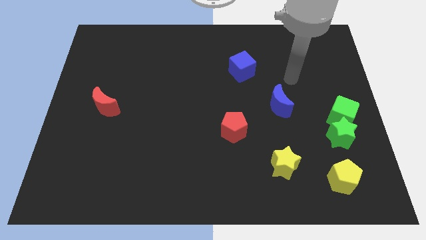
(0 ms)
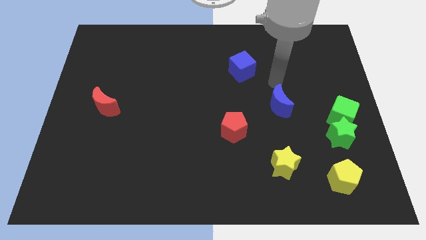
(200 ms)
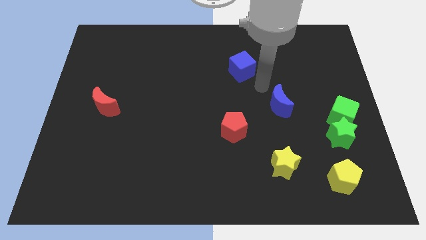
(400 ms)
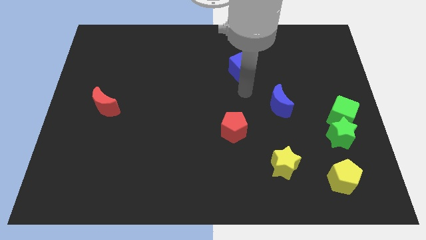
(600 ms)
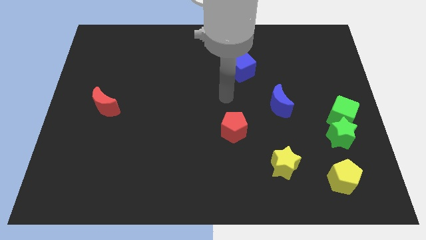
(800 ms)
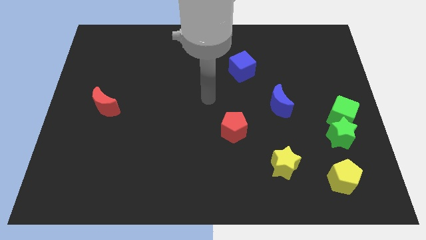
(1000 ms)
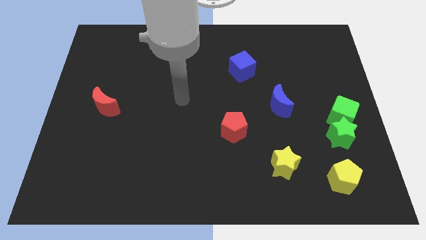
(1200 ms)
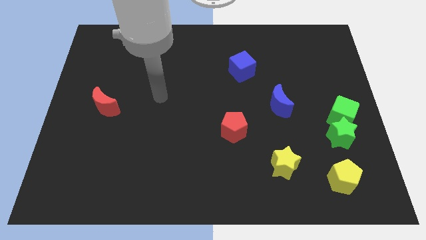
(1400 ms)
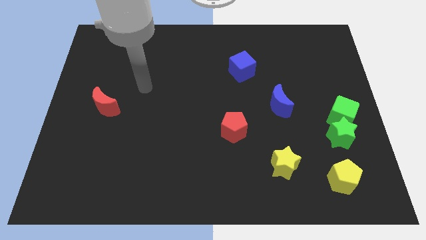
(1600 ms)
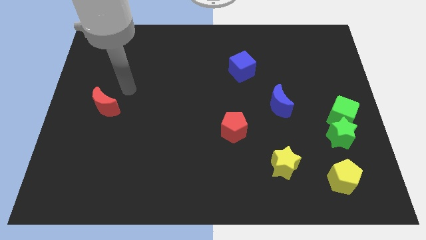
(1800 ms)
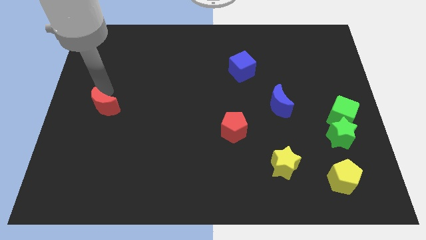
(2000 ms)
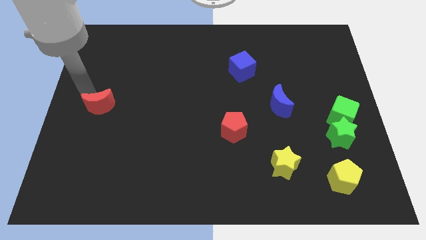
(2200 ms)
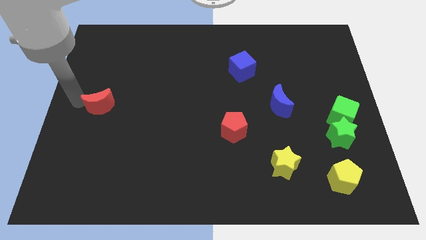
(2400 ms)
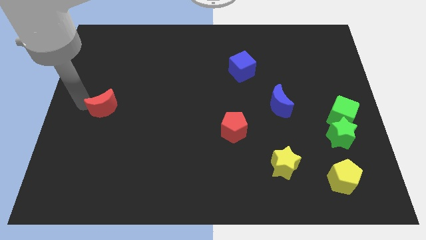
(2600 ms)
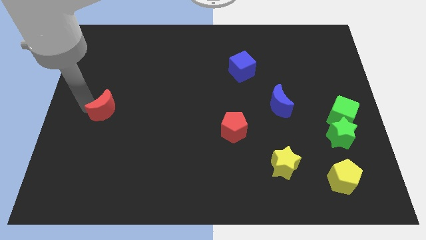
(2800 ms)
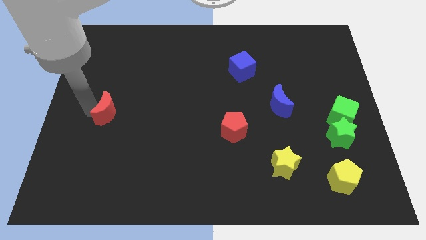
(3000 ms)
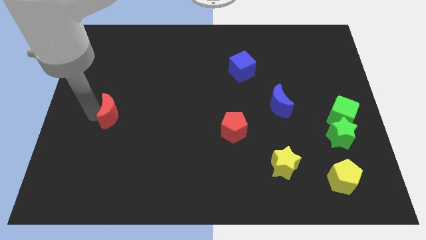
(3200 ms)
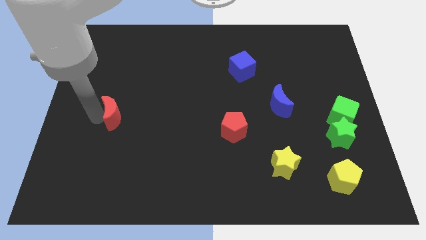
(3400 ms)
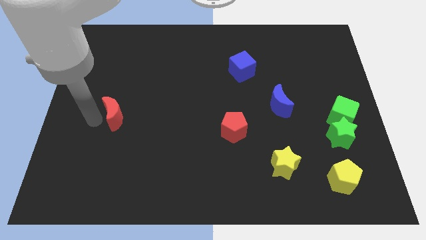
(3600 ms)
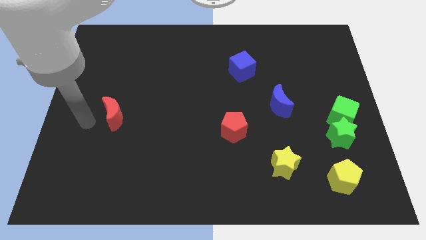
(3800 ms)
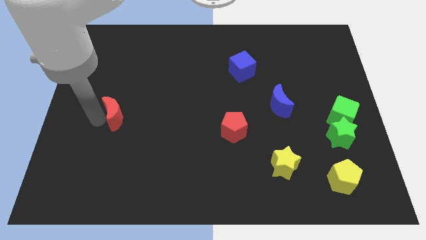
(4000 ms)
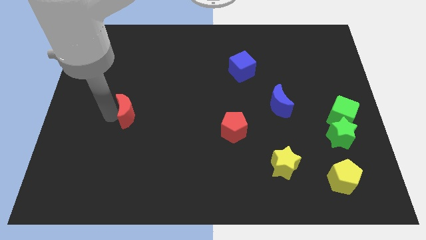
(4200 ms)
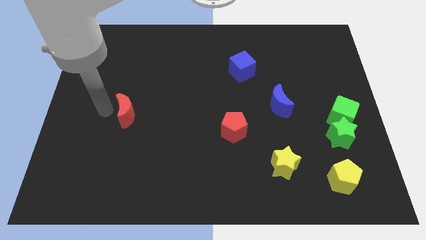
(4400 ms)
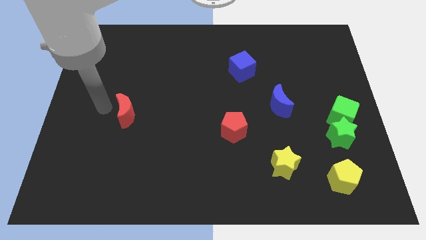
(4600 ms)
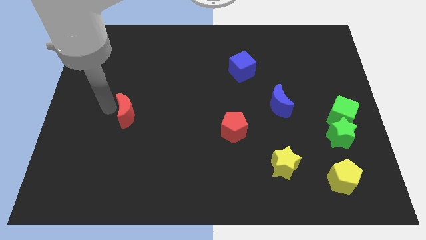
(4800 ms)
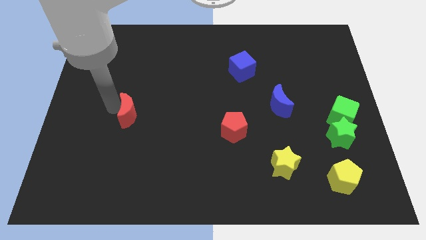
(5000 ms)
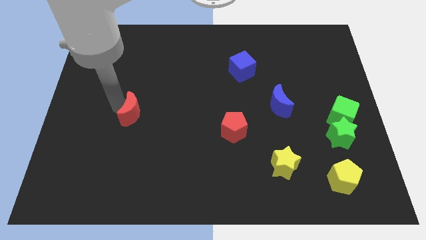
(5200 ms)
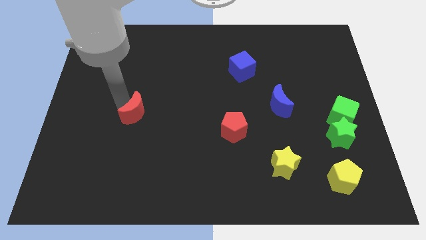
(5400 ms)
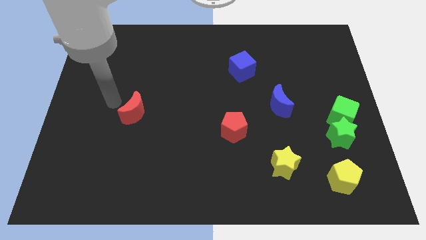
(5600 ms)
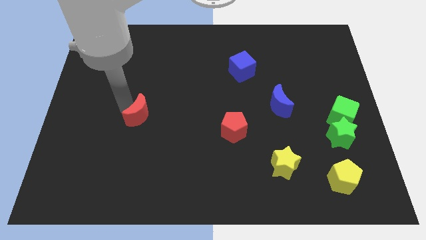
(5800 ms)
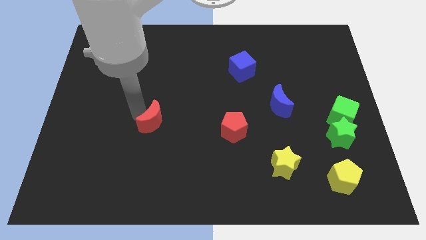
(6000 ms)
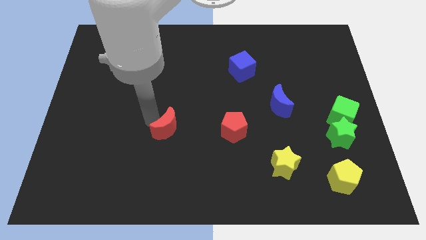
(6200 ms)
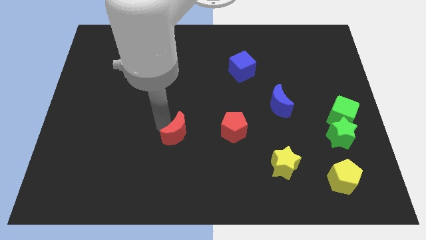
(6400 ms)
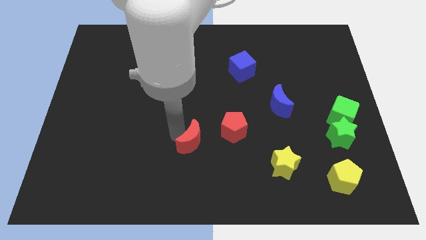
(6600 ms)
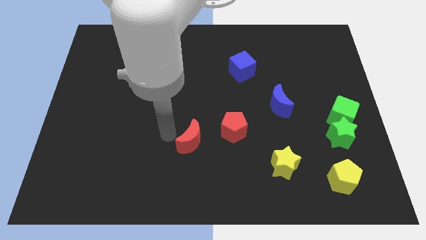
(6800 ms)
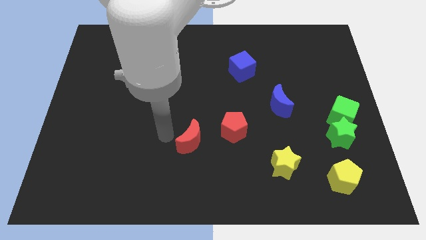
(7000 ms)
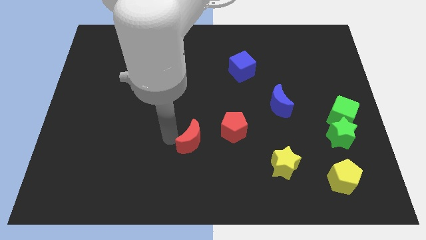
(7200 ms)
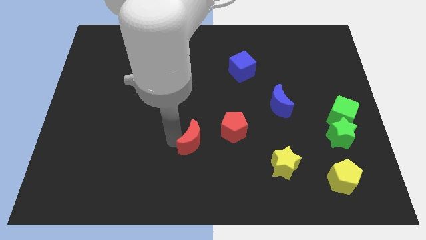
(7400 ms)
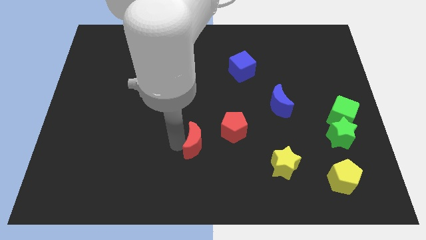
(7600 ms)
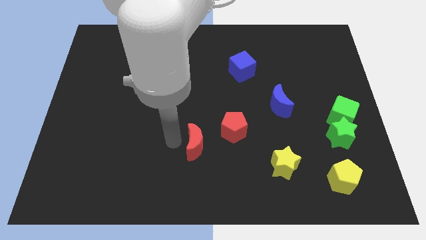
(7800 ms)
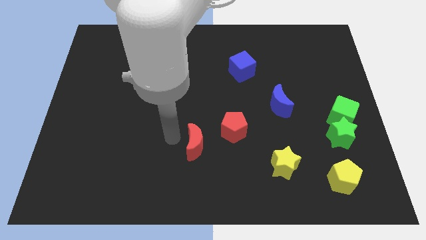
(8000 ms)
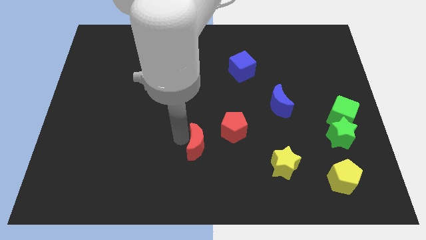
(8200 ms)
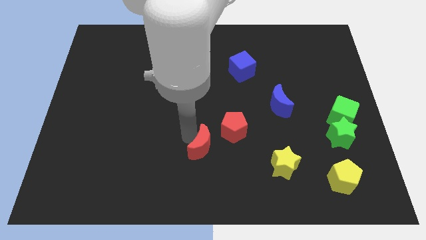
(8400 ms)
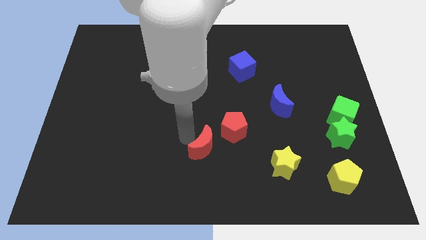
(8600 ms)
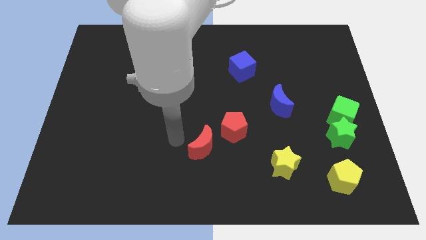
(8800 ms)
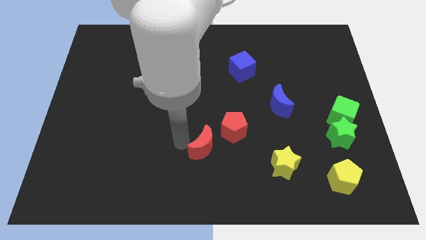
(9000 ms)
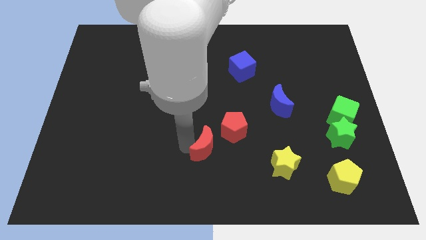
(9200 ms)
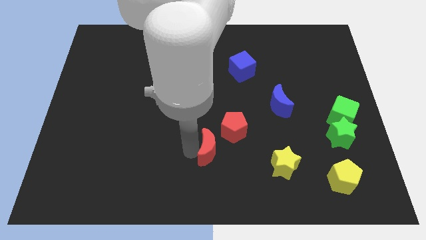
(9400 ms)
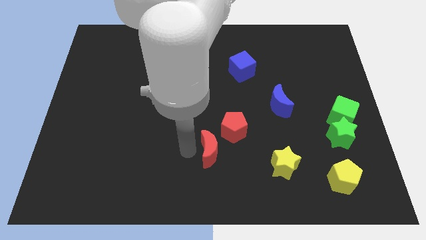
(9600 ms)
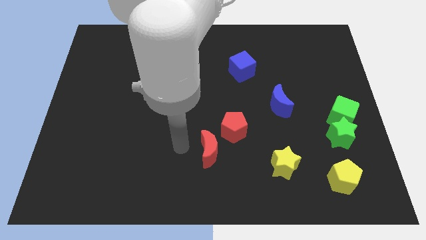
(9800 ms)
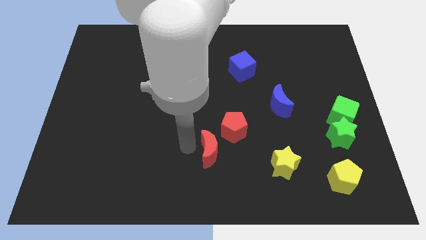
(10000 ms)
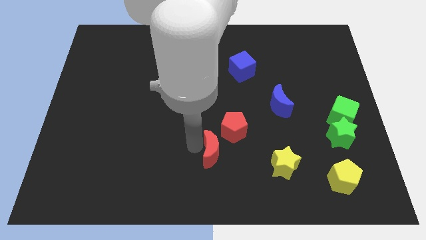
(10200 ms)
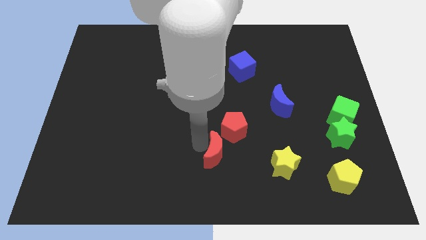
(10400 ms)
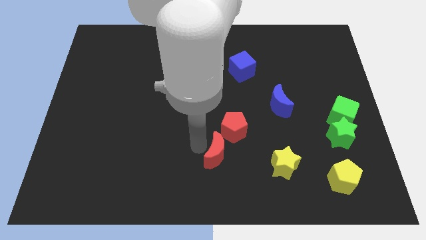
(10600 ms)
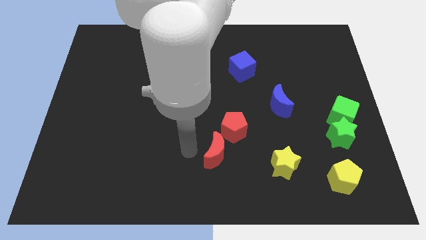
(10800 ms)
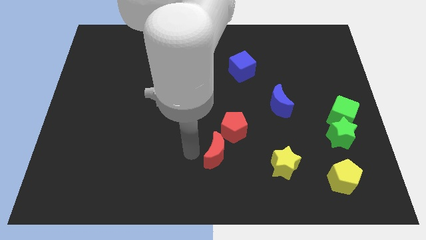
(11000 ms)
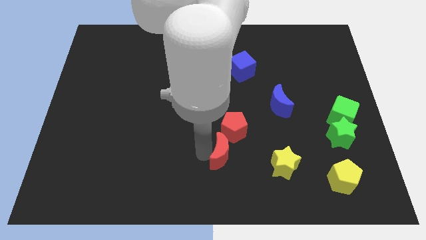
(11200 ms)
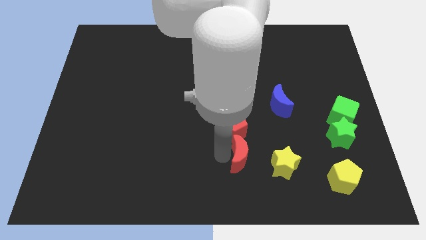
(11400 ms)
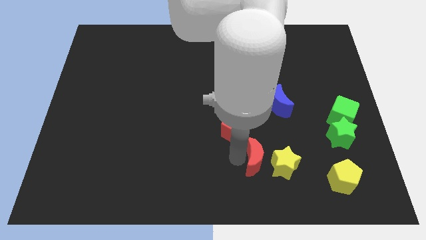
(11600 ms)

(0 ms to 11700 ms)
put the red moon towards the yellow star

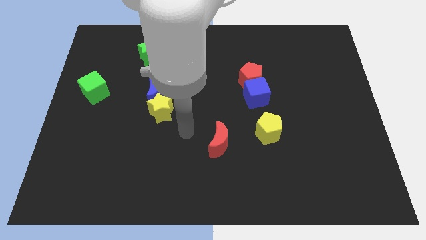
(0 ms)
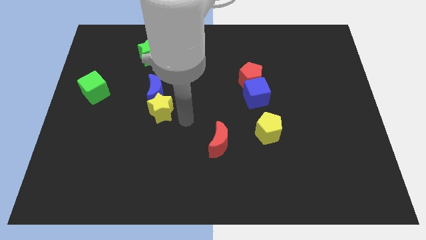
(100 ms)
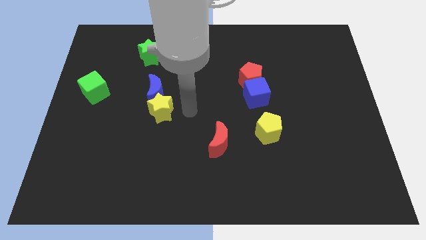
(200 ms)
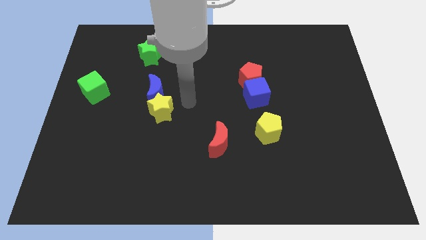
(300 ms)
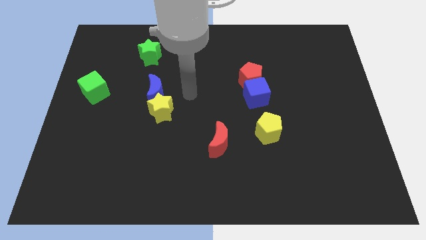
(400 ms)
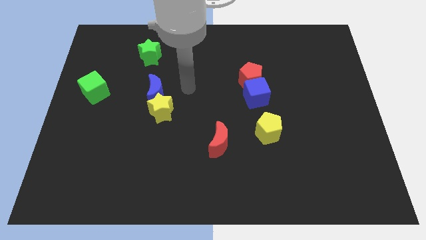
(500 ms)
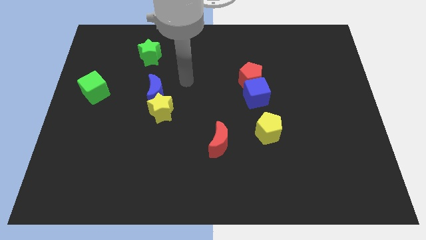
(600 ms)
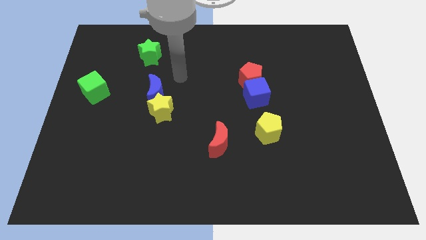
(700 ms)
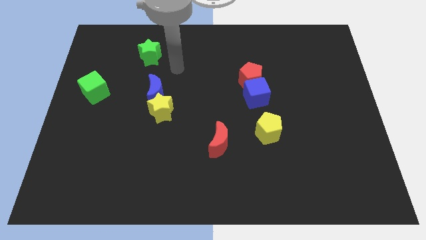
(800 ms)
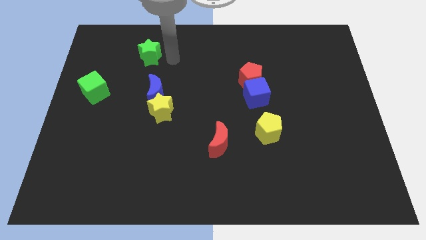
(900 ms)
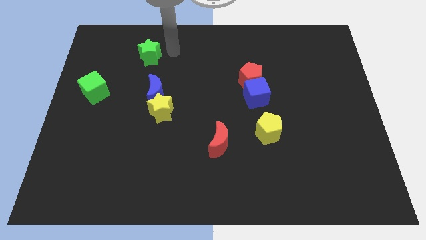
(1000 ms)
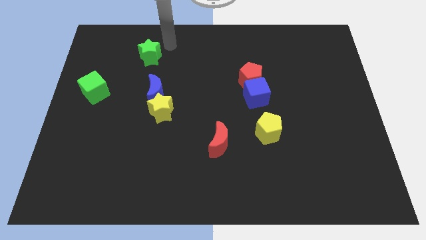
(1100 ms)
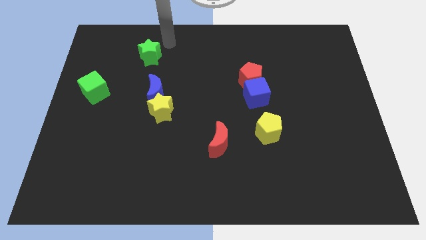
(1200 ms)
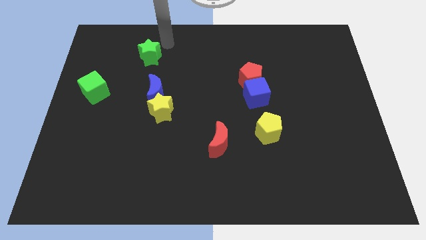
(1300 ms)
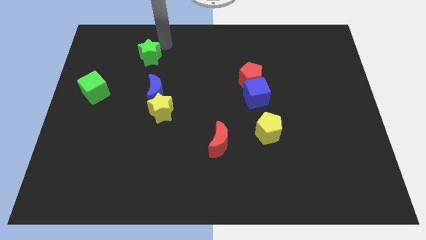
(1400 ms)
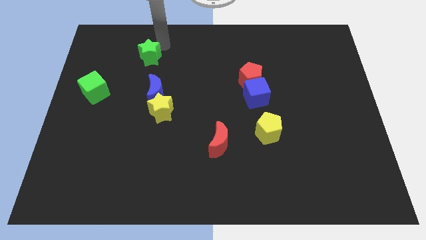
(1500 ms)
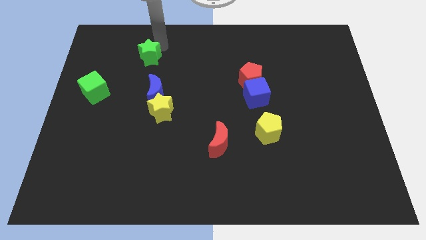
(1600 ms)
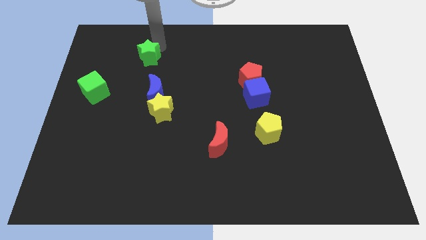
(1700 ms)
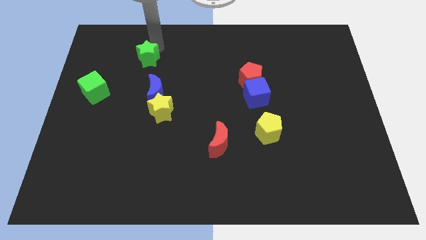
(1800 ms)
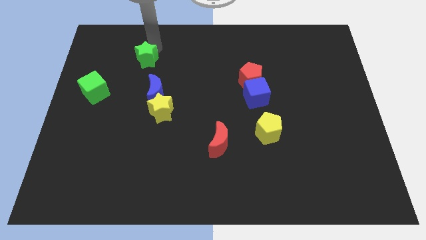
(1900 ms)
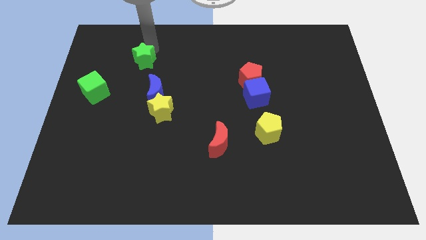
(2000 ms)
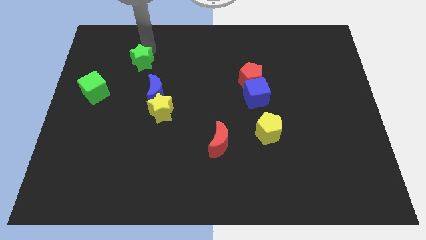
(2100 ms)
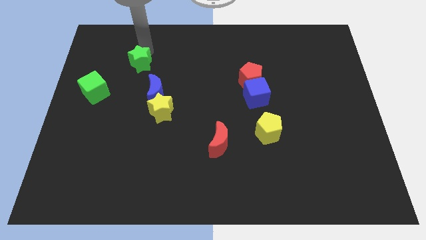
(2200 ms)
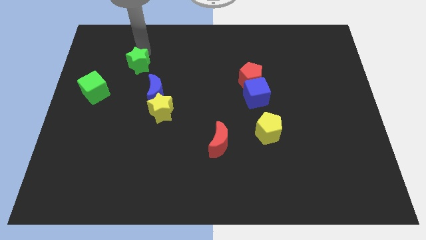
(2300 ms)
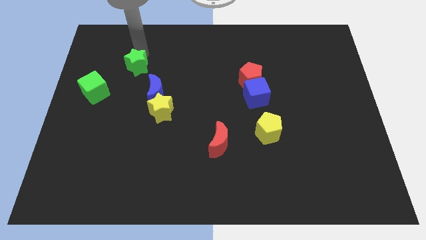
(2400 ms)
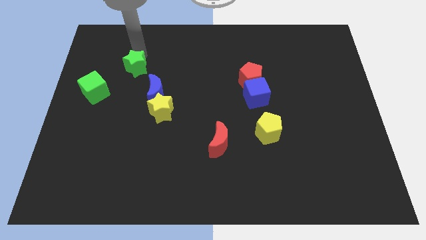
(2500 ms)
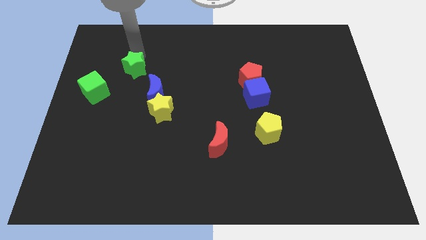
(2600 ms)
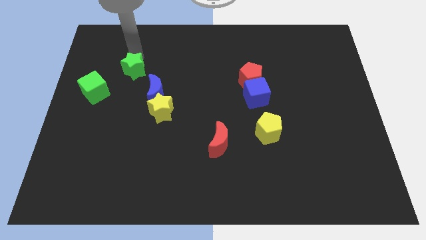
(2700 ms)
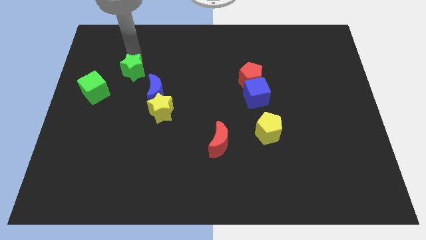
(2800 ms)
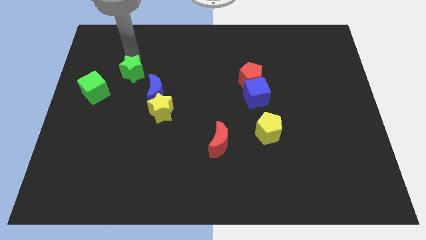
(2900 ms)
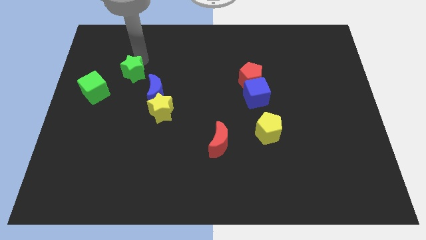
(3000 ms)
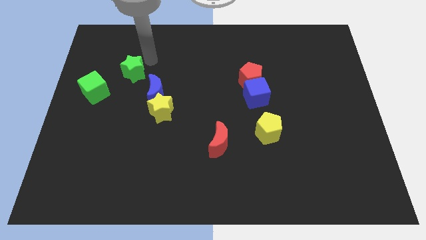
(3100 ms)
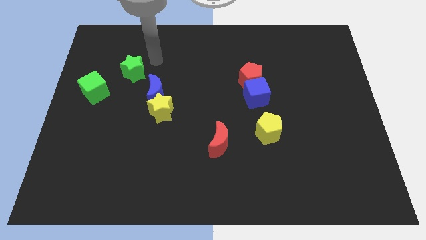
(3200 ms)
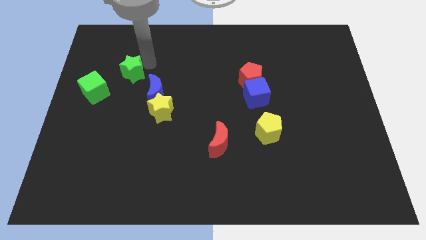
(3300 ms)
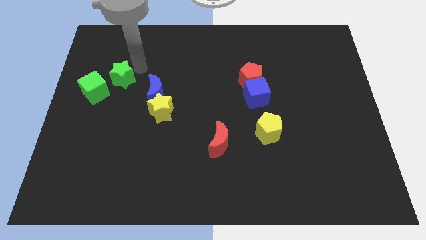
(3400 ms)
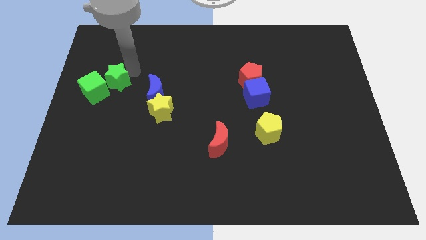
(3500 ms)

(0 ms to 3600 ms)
slide the green star close to the green cube
